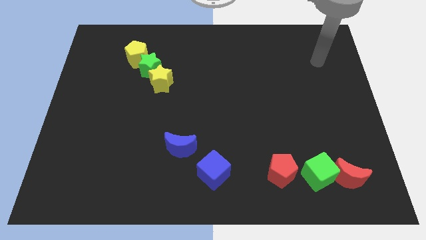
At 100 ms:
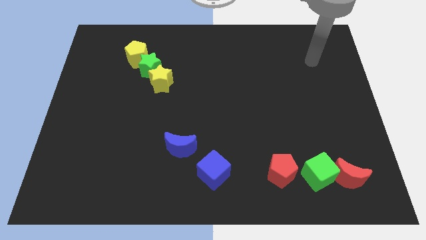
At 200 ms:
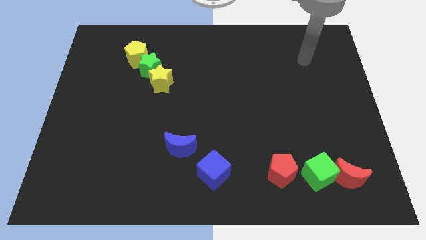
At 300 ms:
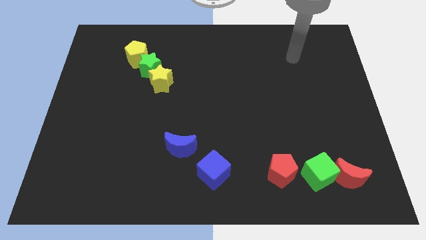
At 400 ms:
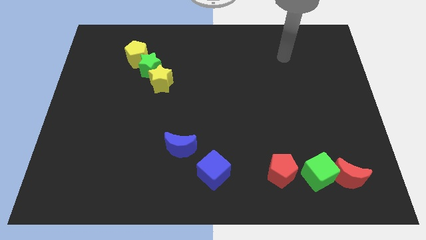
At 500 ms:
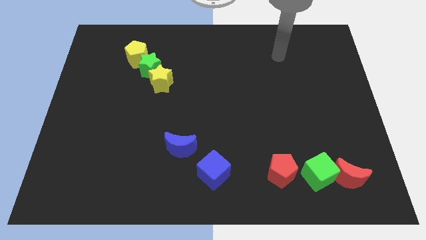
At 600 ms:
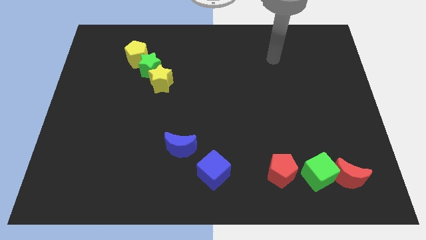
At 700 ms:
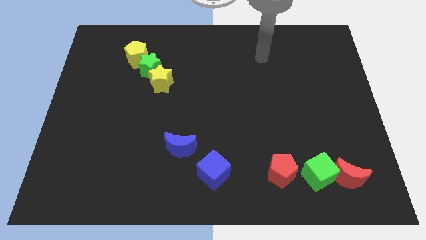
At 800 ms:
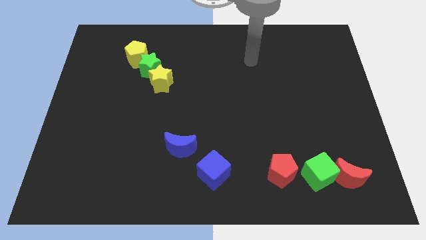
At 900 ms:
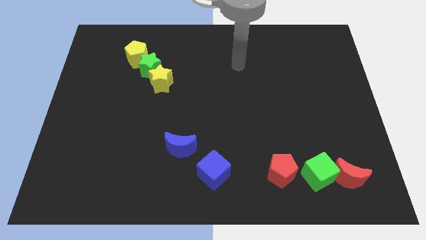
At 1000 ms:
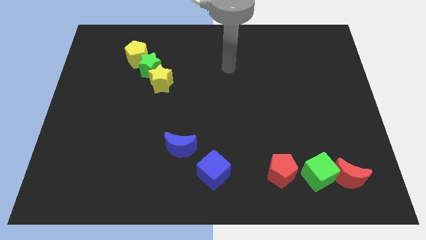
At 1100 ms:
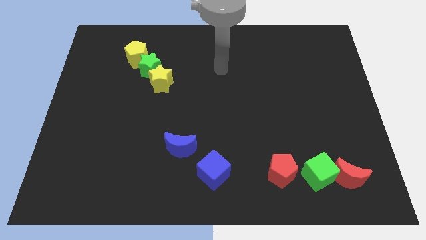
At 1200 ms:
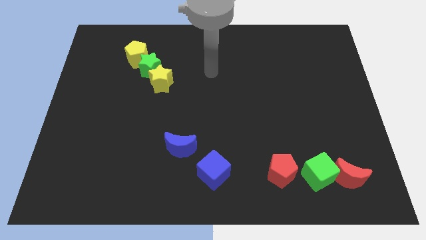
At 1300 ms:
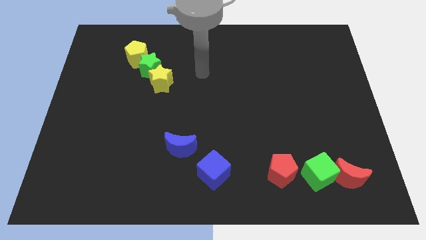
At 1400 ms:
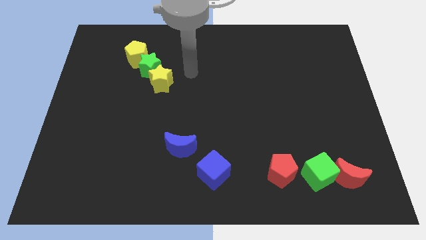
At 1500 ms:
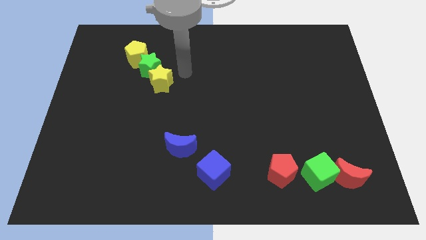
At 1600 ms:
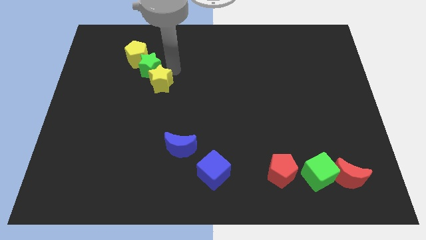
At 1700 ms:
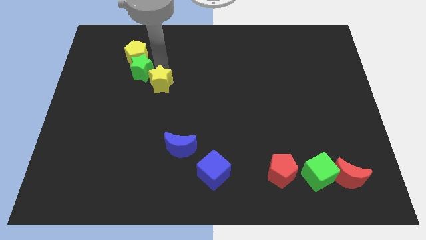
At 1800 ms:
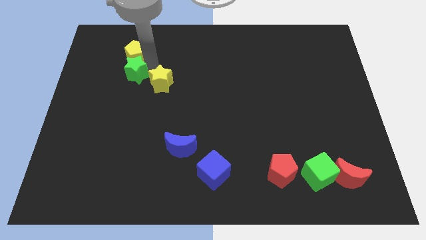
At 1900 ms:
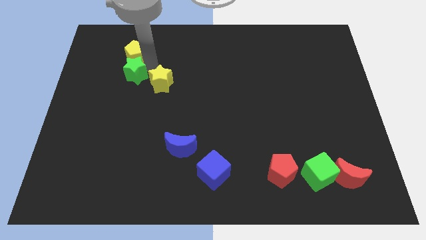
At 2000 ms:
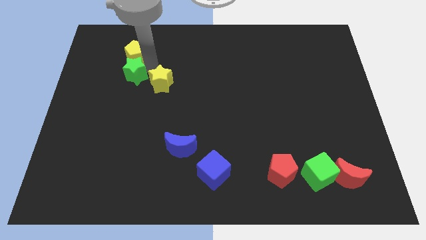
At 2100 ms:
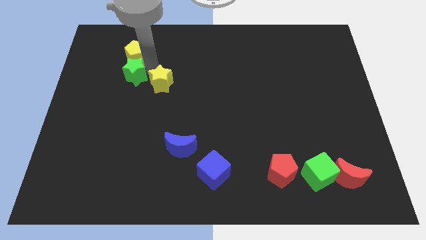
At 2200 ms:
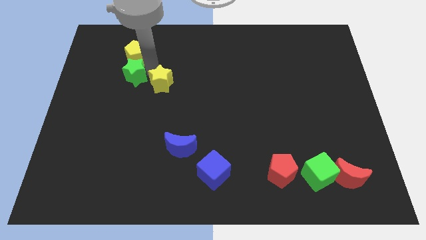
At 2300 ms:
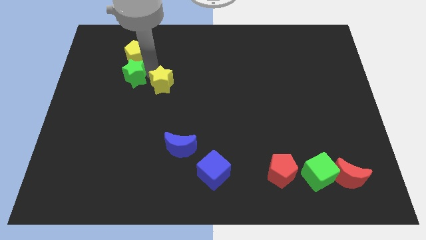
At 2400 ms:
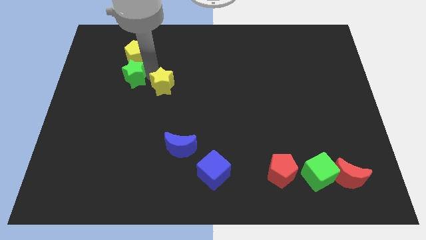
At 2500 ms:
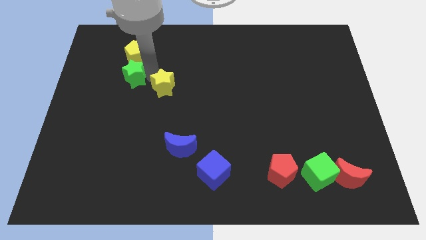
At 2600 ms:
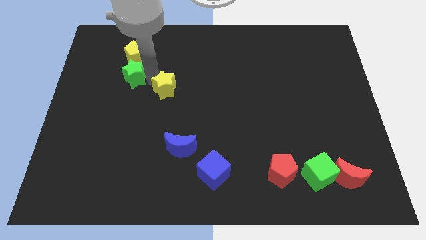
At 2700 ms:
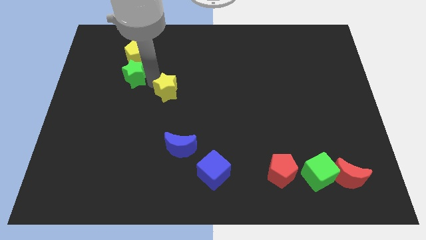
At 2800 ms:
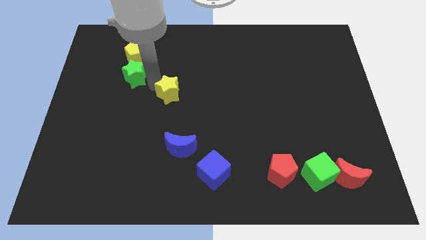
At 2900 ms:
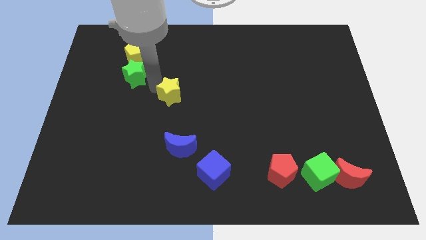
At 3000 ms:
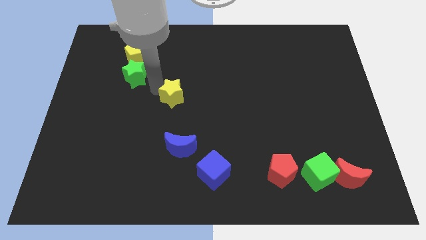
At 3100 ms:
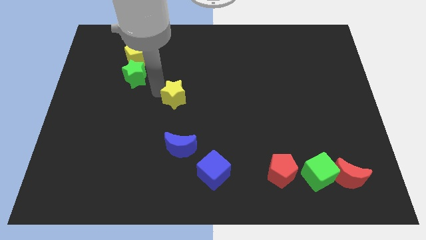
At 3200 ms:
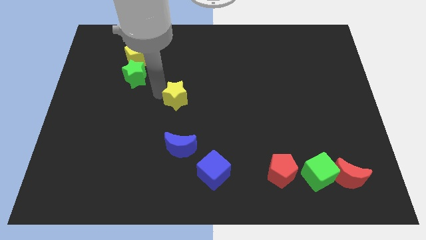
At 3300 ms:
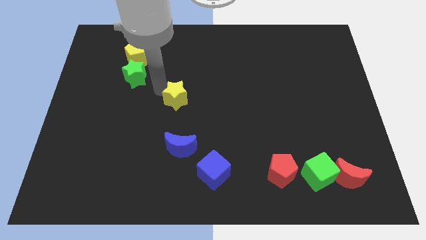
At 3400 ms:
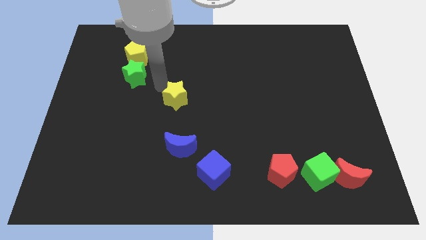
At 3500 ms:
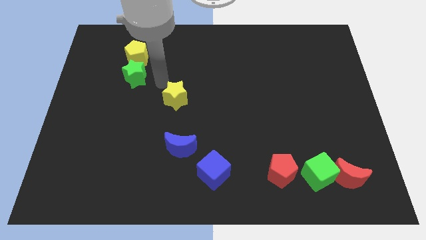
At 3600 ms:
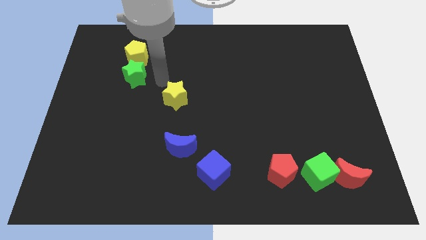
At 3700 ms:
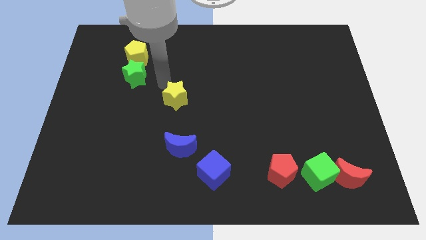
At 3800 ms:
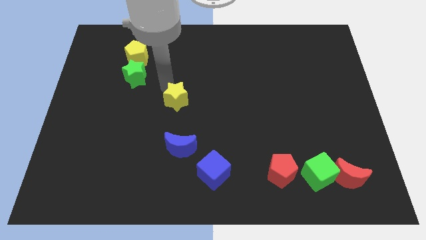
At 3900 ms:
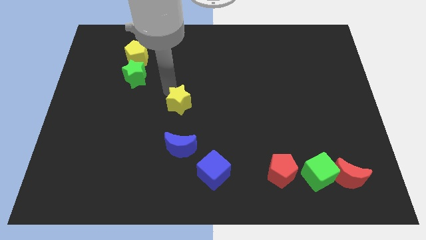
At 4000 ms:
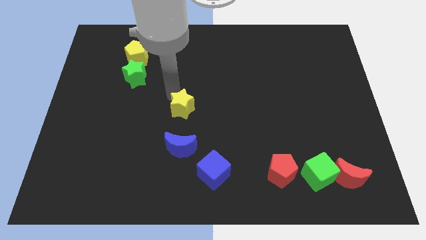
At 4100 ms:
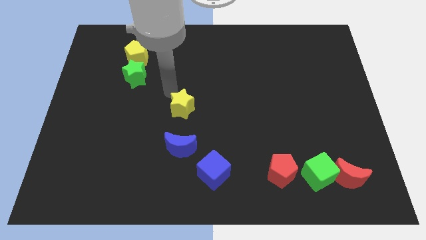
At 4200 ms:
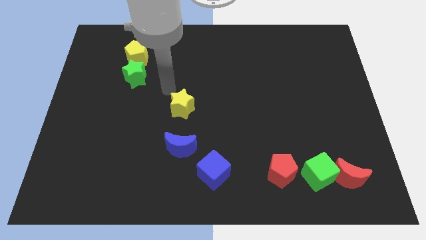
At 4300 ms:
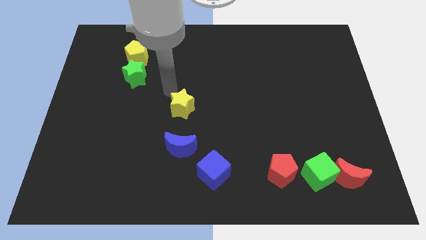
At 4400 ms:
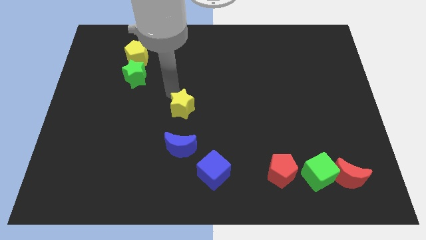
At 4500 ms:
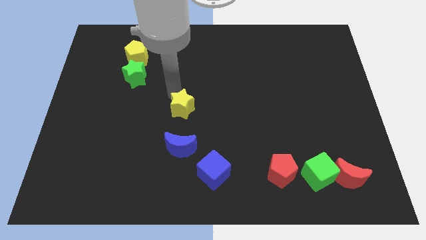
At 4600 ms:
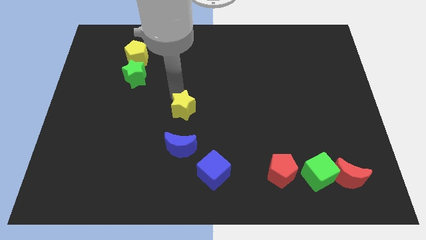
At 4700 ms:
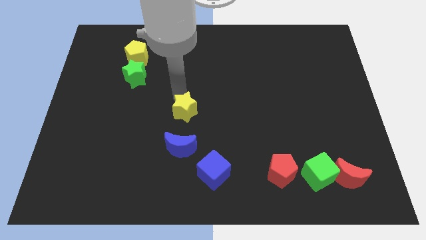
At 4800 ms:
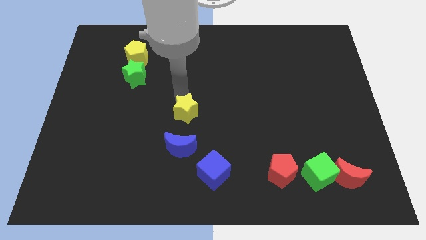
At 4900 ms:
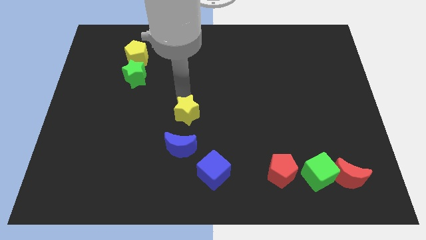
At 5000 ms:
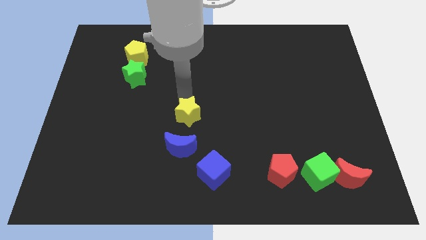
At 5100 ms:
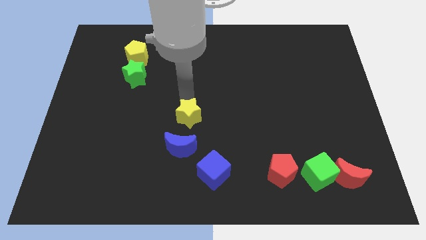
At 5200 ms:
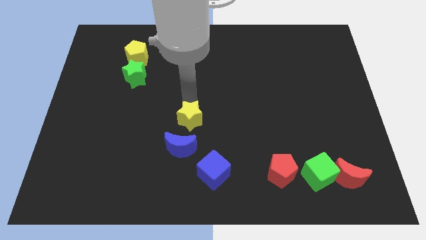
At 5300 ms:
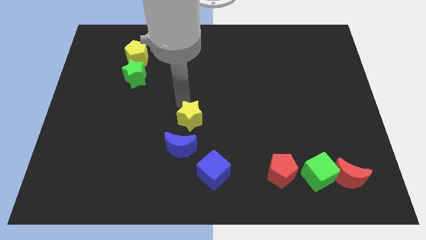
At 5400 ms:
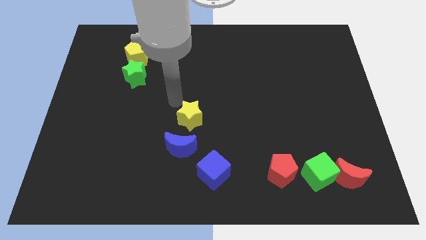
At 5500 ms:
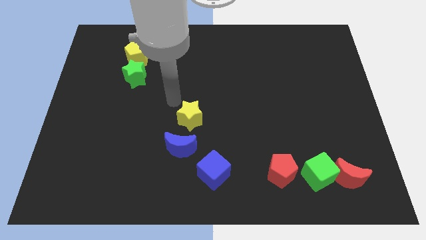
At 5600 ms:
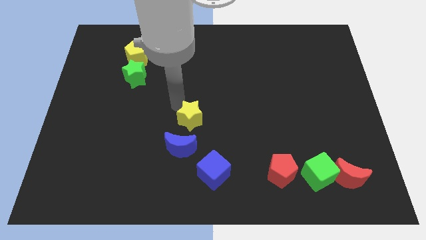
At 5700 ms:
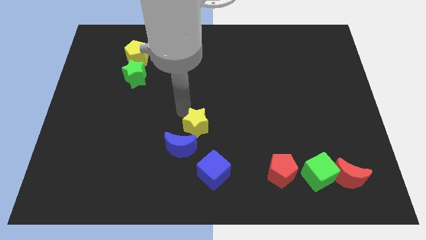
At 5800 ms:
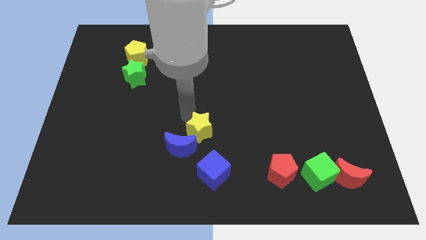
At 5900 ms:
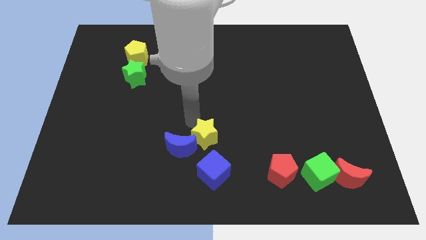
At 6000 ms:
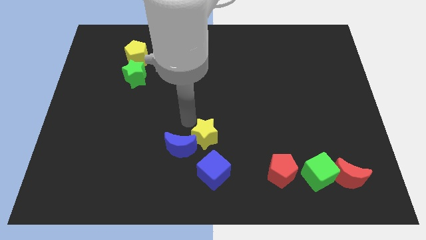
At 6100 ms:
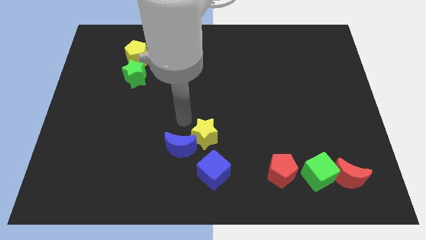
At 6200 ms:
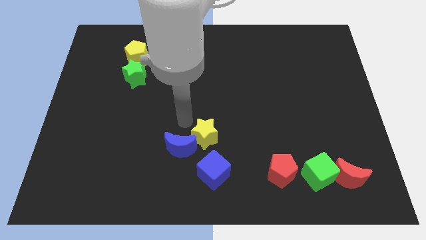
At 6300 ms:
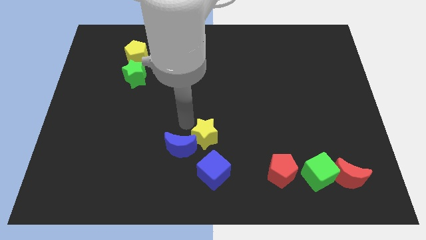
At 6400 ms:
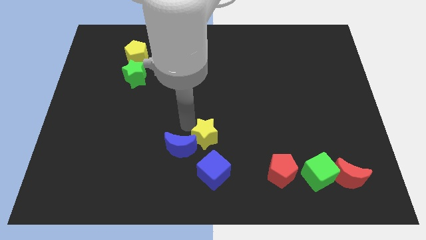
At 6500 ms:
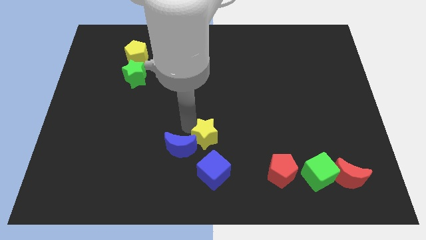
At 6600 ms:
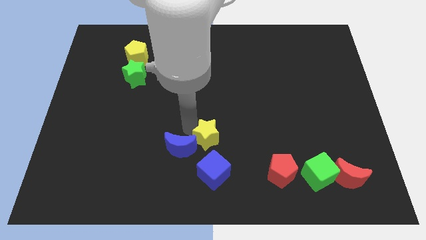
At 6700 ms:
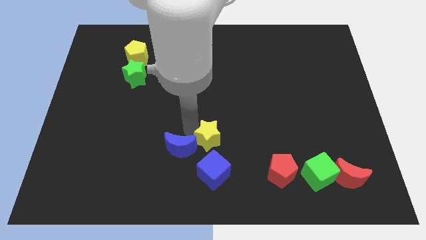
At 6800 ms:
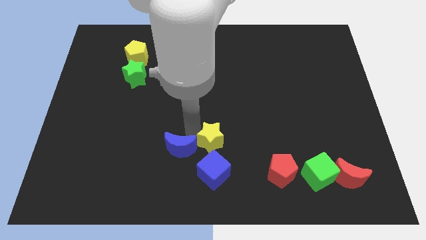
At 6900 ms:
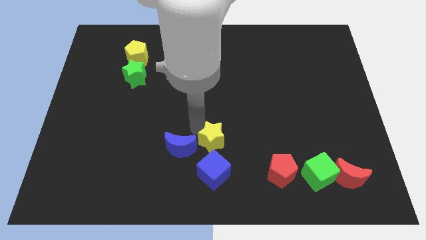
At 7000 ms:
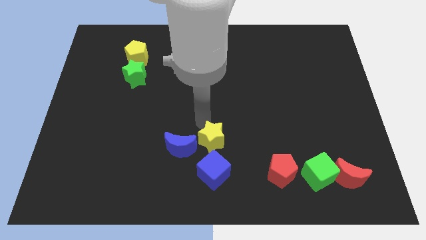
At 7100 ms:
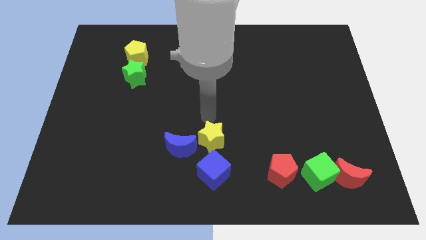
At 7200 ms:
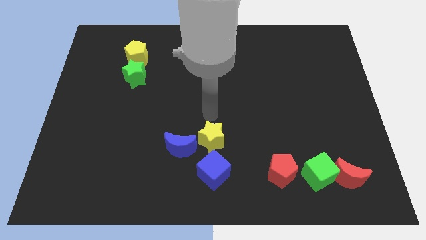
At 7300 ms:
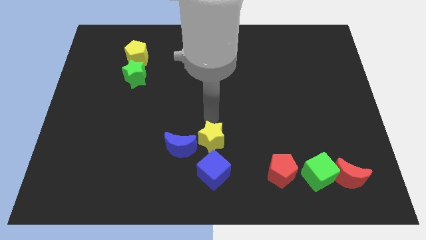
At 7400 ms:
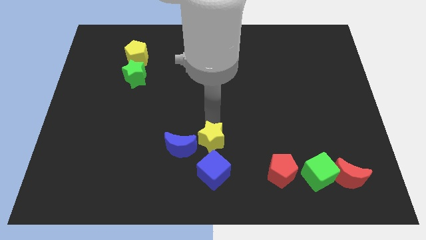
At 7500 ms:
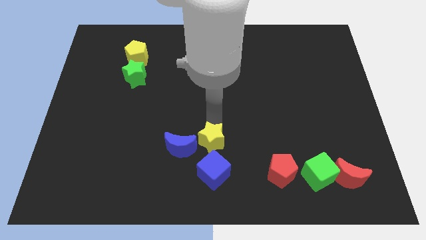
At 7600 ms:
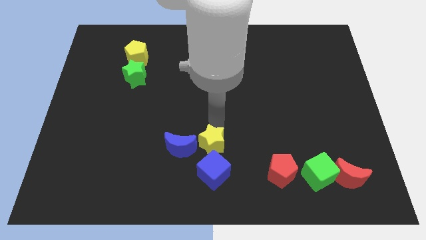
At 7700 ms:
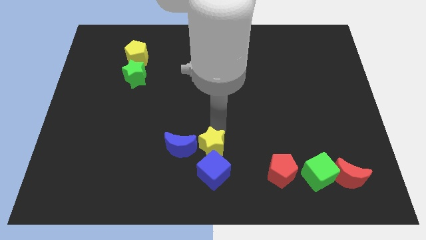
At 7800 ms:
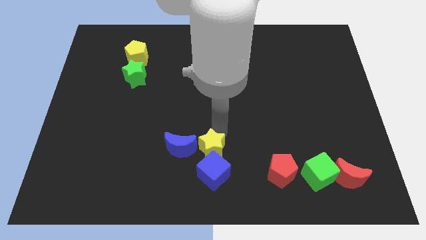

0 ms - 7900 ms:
move the yellow star towards the blue cube

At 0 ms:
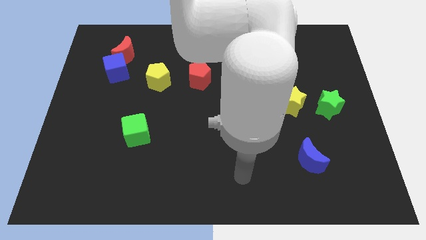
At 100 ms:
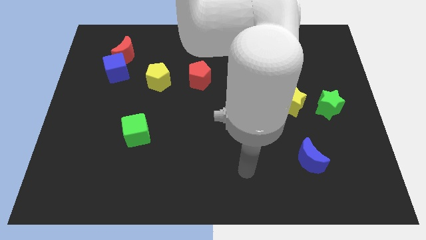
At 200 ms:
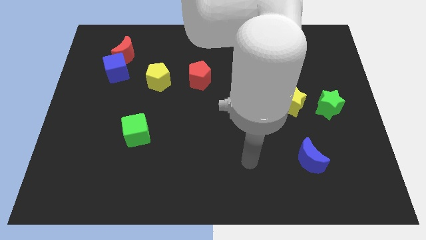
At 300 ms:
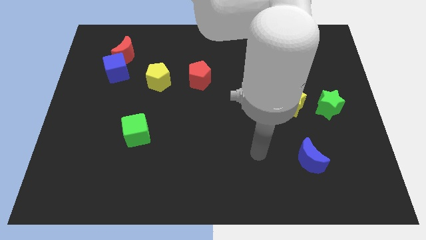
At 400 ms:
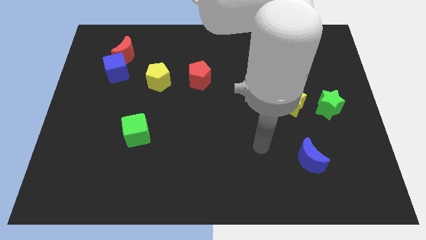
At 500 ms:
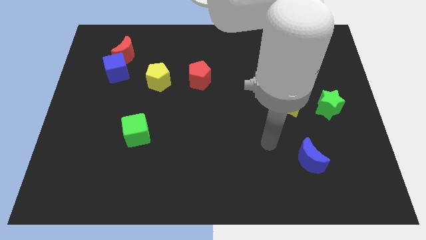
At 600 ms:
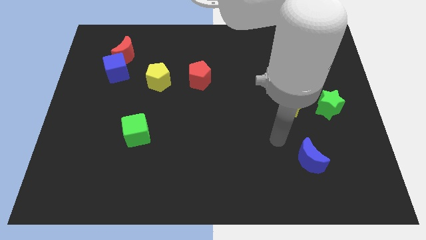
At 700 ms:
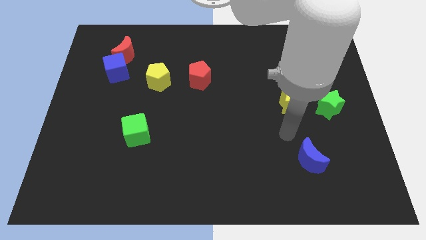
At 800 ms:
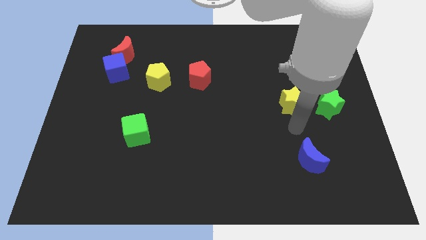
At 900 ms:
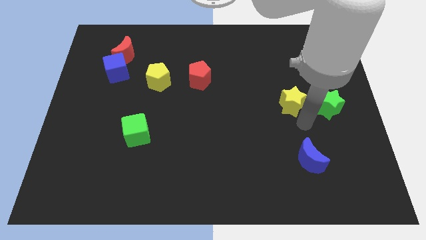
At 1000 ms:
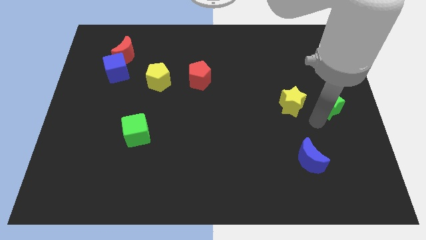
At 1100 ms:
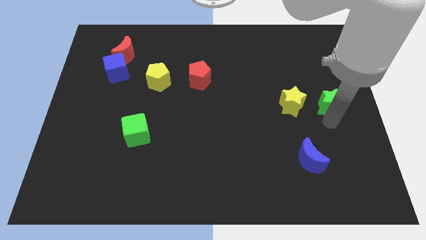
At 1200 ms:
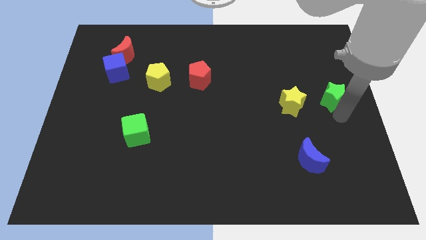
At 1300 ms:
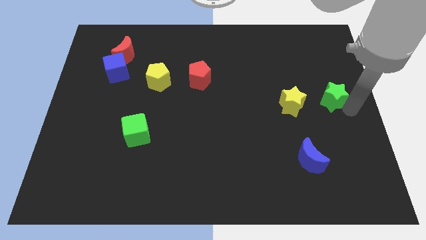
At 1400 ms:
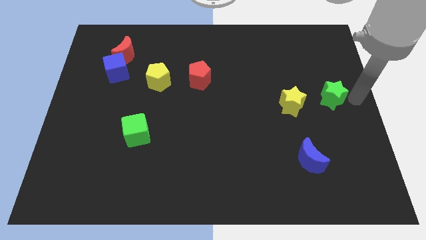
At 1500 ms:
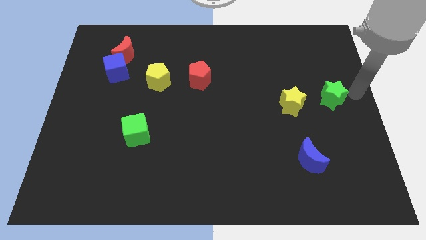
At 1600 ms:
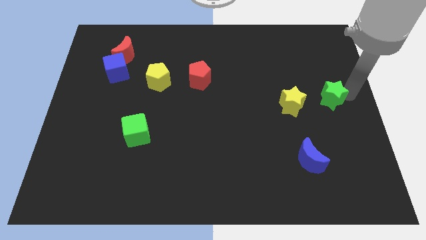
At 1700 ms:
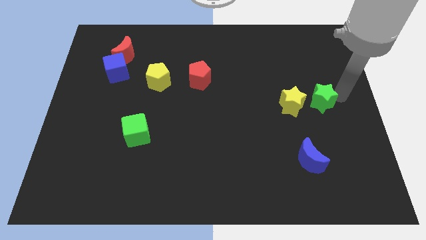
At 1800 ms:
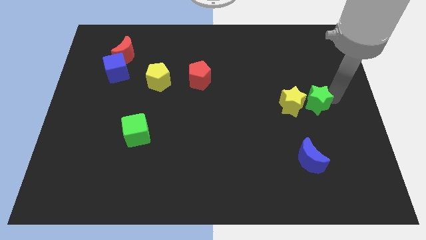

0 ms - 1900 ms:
put the green star to the yellow star
